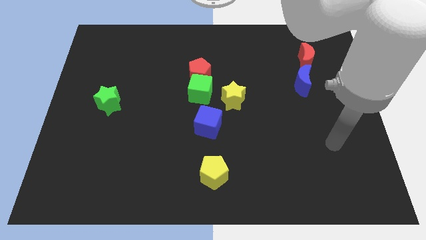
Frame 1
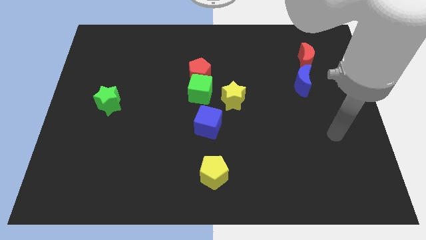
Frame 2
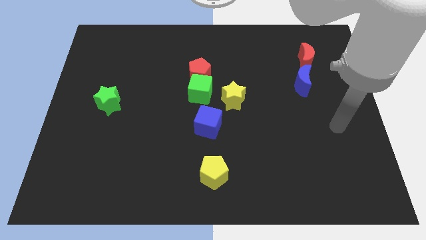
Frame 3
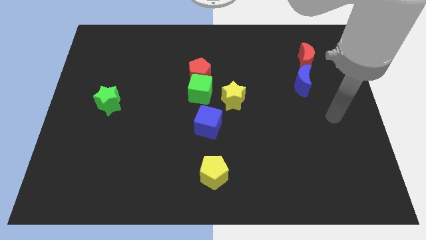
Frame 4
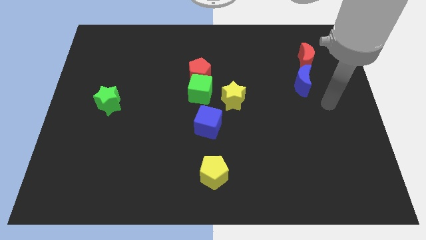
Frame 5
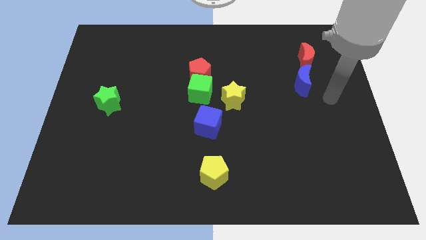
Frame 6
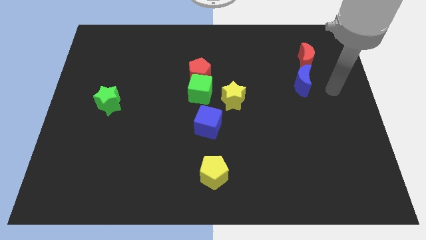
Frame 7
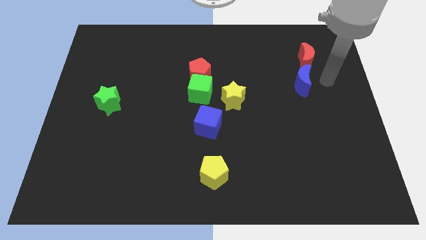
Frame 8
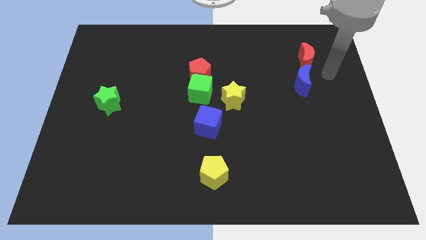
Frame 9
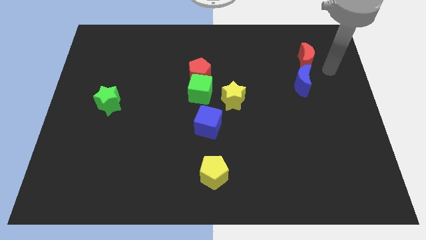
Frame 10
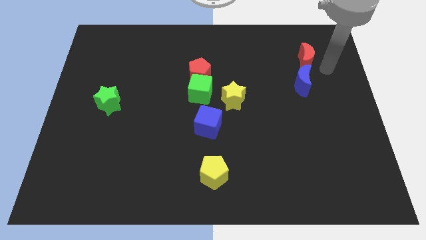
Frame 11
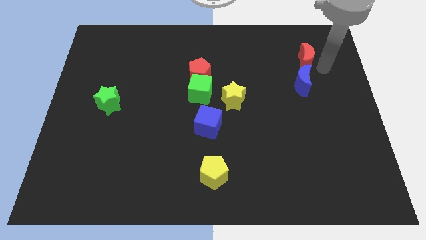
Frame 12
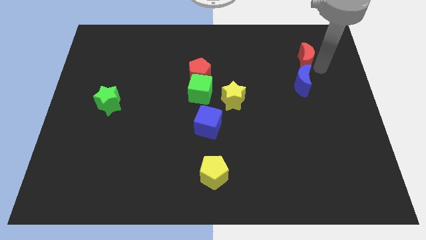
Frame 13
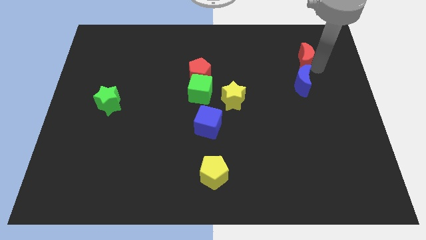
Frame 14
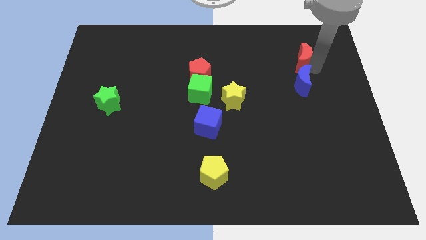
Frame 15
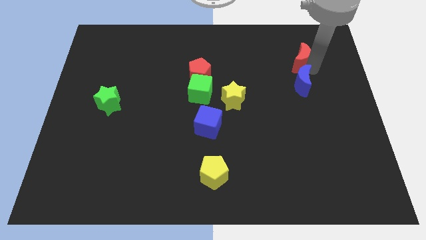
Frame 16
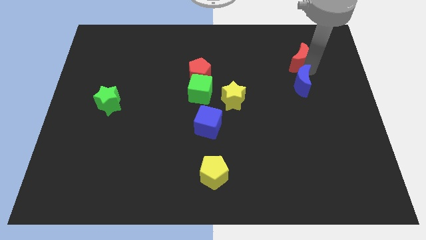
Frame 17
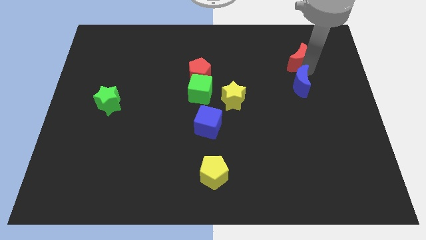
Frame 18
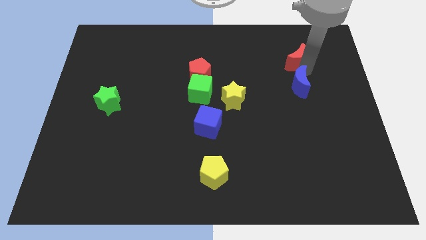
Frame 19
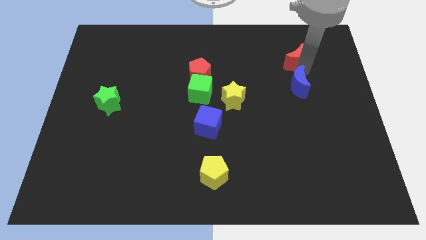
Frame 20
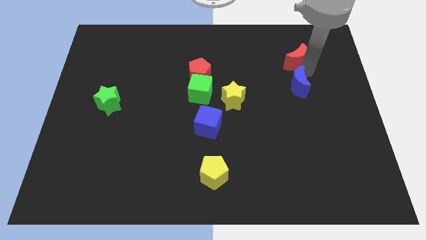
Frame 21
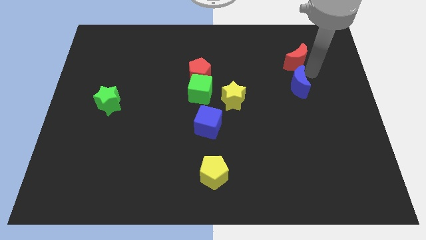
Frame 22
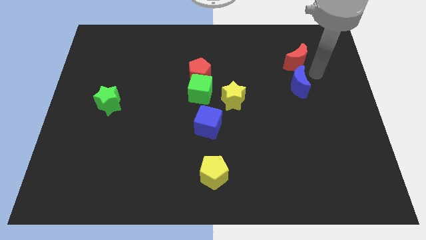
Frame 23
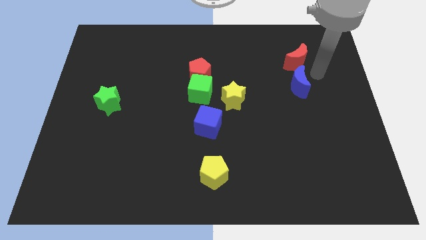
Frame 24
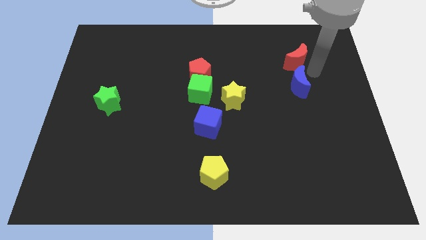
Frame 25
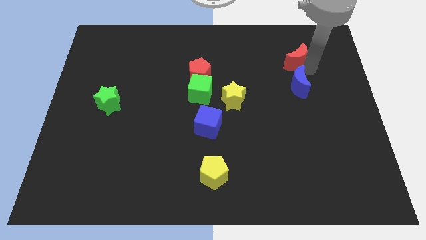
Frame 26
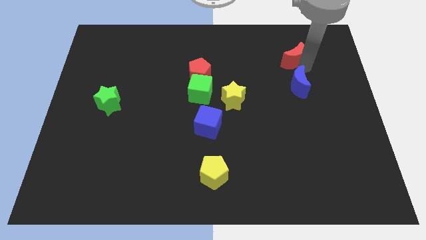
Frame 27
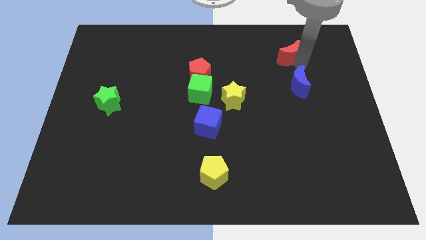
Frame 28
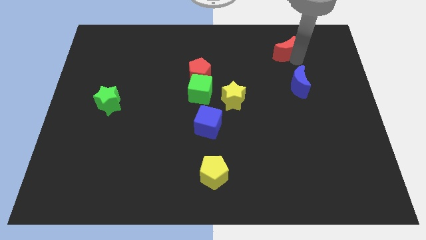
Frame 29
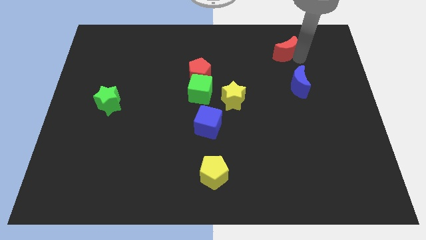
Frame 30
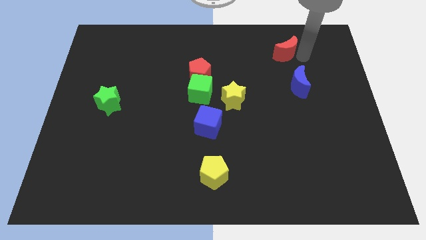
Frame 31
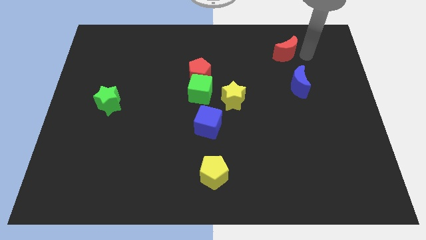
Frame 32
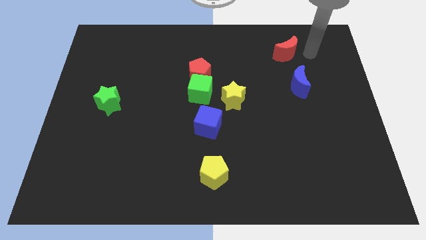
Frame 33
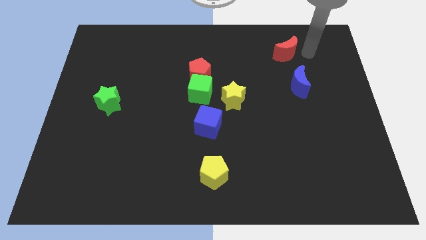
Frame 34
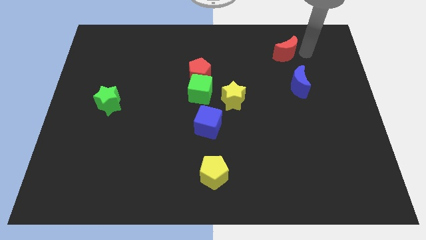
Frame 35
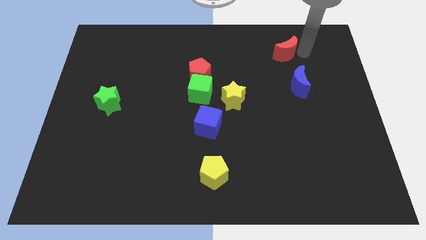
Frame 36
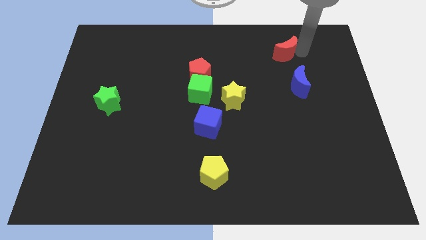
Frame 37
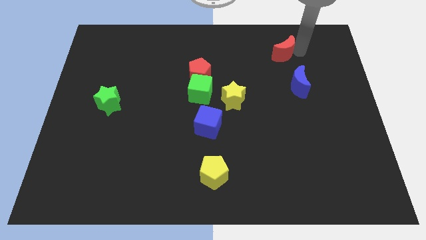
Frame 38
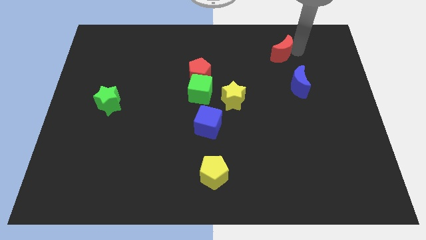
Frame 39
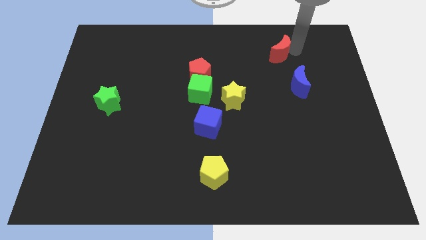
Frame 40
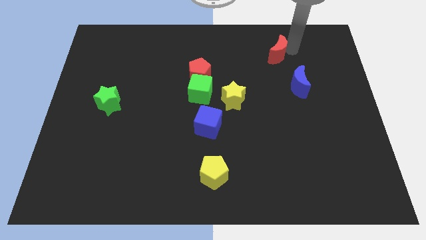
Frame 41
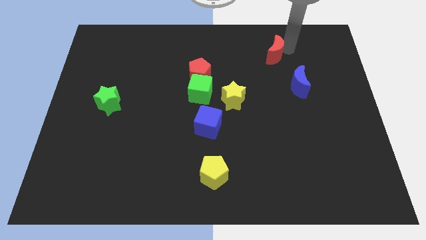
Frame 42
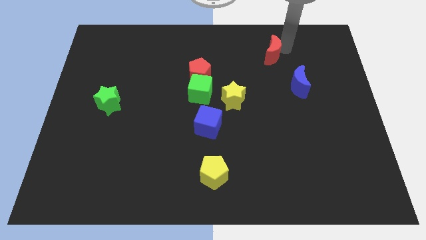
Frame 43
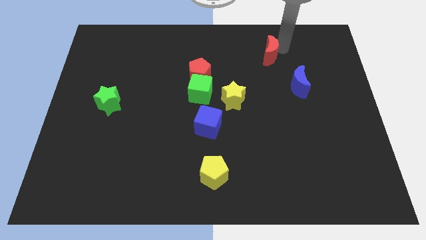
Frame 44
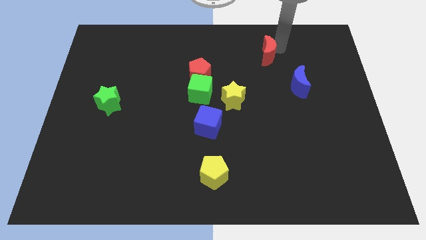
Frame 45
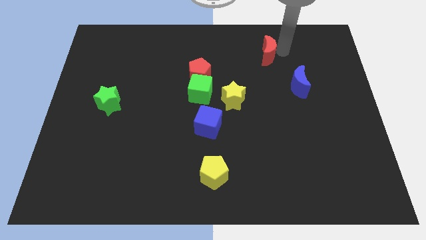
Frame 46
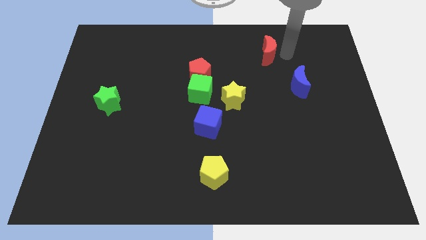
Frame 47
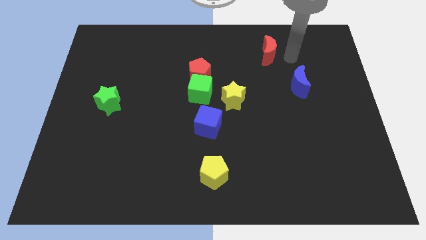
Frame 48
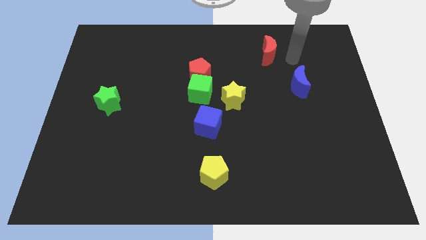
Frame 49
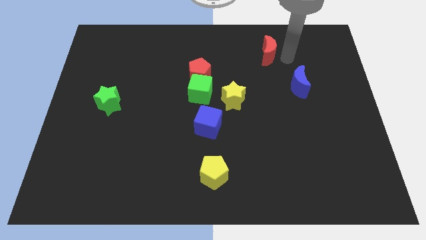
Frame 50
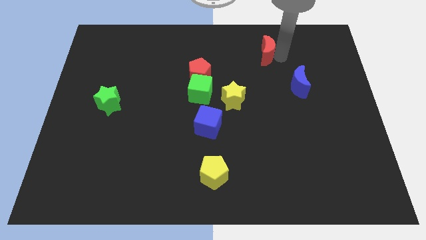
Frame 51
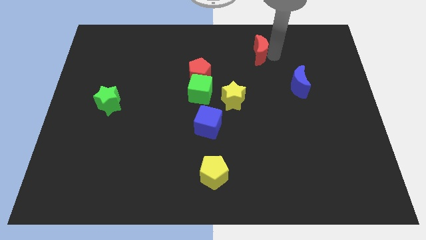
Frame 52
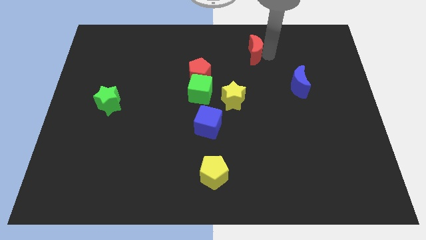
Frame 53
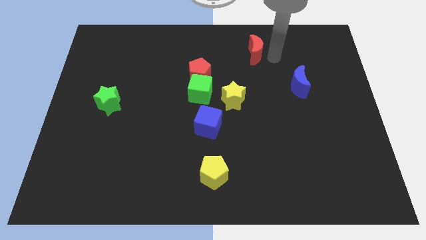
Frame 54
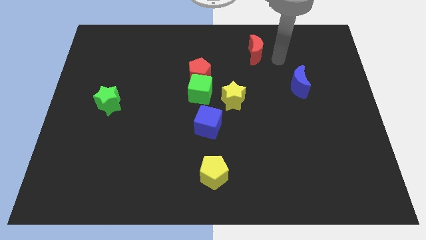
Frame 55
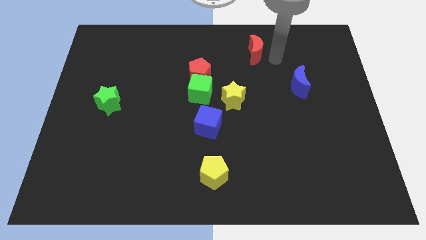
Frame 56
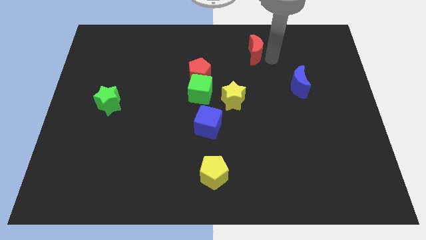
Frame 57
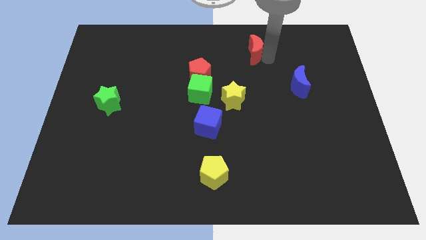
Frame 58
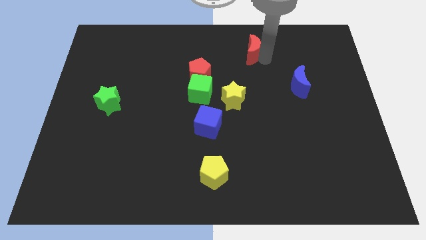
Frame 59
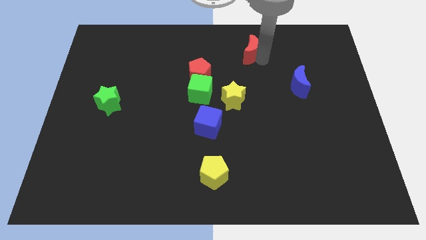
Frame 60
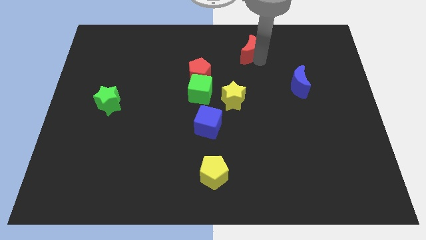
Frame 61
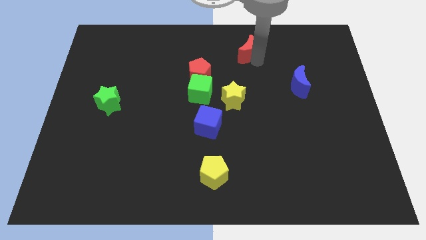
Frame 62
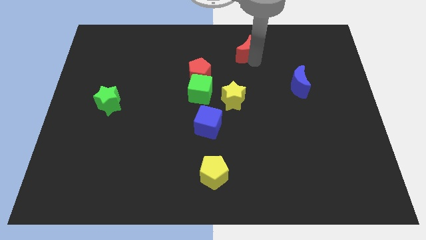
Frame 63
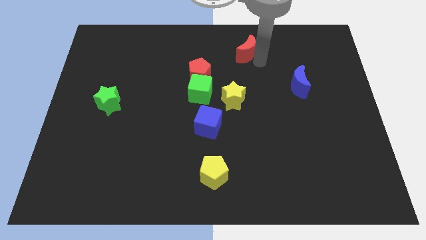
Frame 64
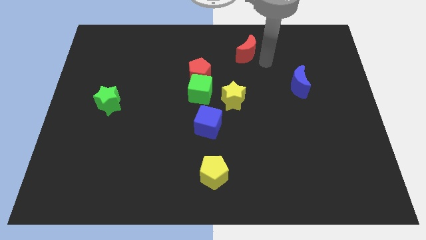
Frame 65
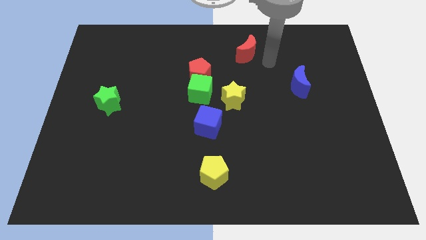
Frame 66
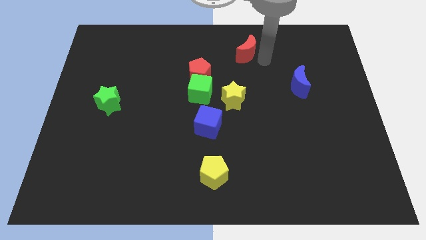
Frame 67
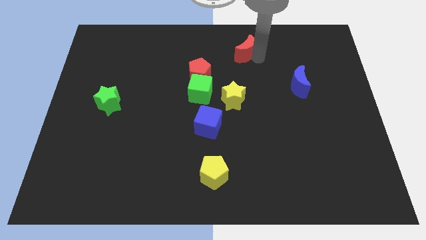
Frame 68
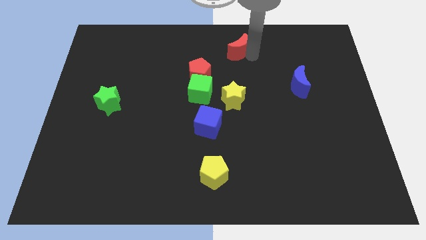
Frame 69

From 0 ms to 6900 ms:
push the red moon to the top

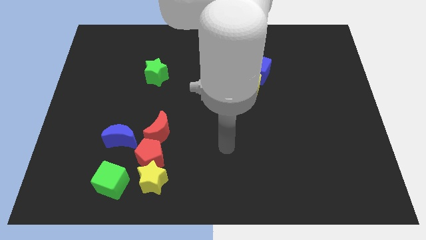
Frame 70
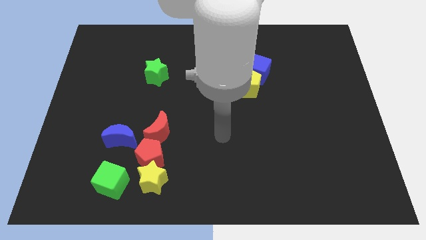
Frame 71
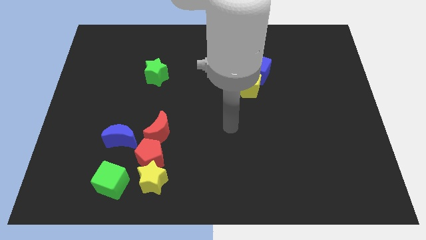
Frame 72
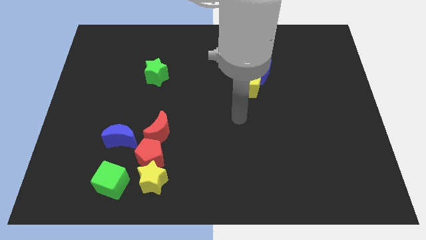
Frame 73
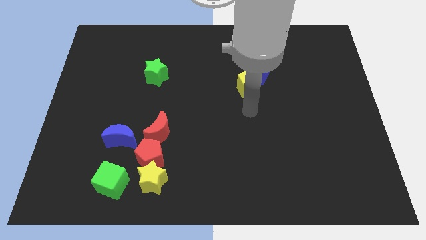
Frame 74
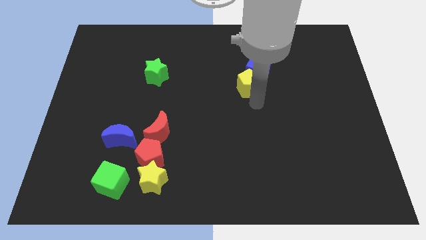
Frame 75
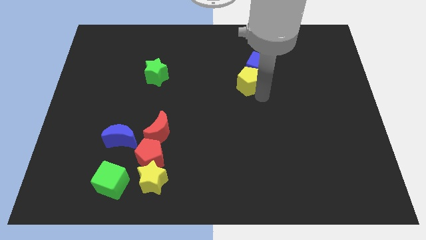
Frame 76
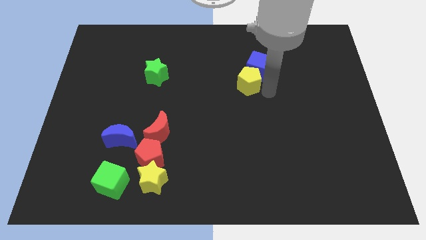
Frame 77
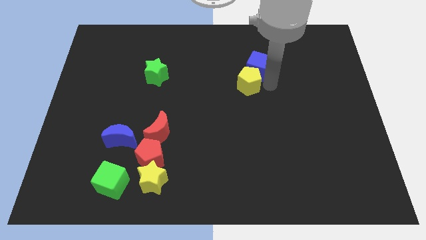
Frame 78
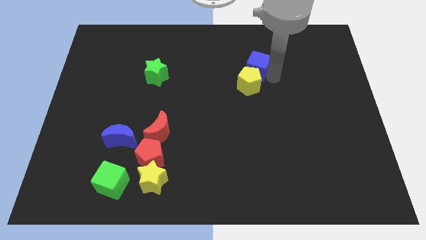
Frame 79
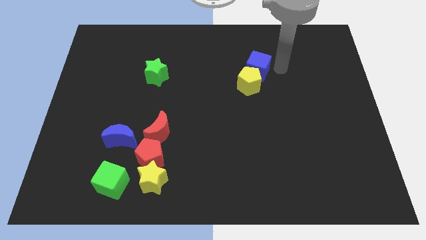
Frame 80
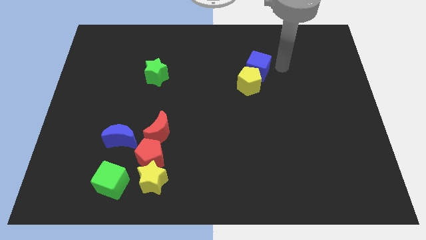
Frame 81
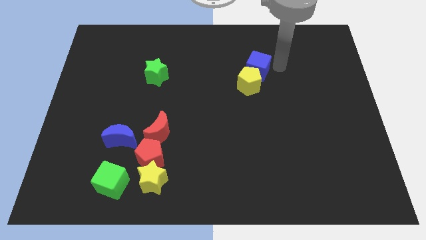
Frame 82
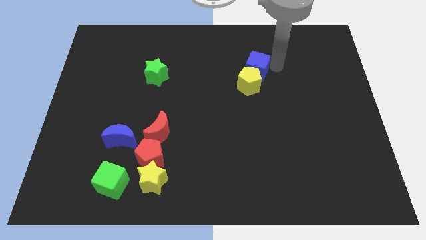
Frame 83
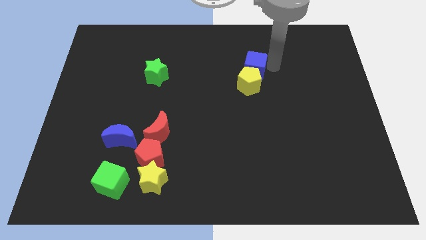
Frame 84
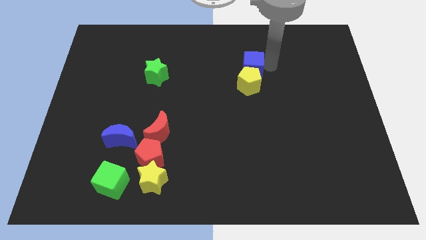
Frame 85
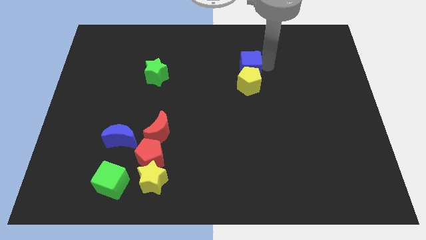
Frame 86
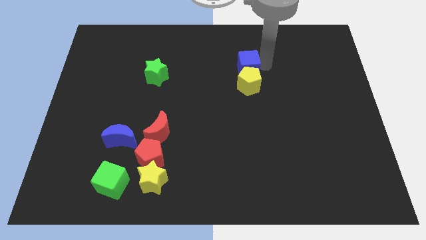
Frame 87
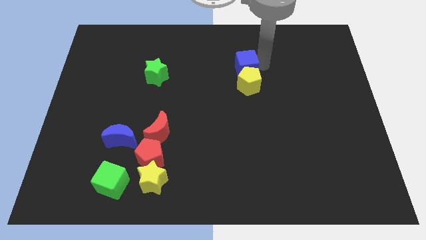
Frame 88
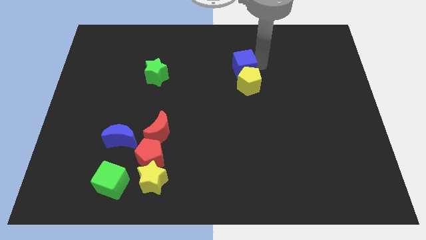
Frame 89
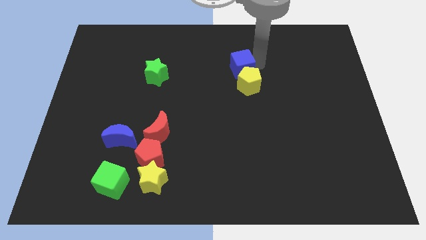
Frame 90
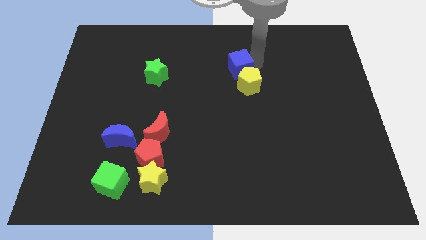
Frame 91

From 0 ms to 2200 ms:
move the blue cube to the center

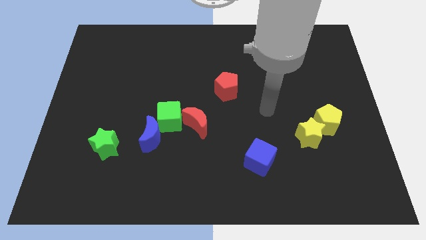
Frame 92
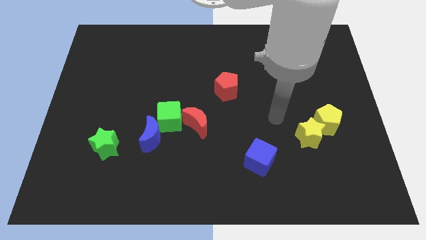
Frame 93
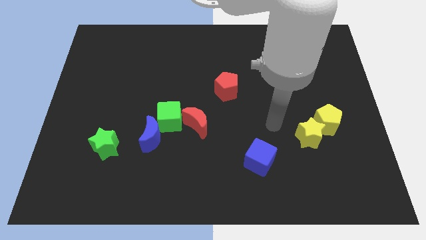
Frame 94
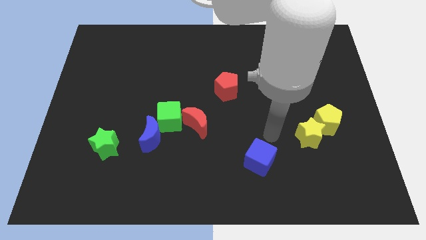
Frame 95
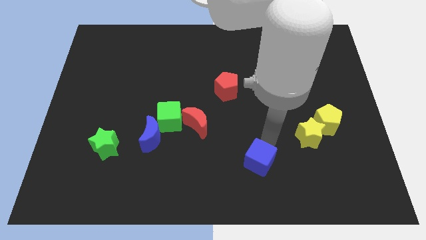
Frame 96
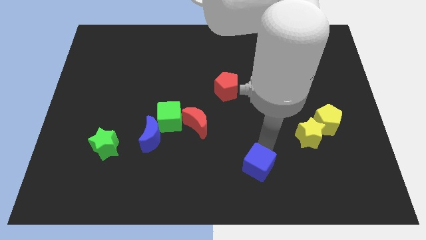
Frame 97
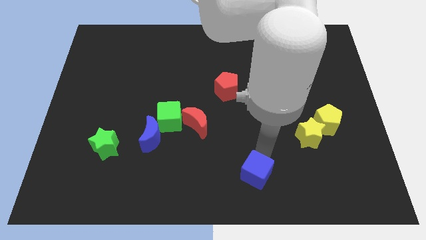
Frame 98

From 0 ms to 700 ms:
slide the blue cube to the bottom side
